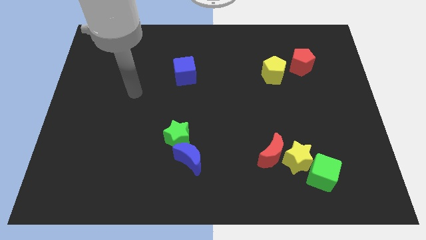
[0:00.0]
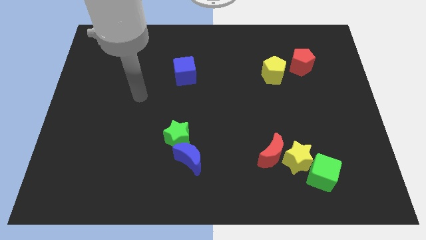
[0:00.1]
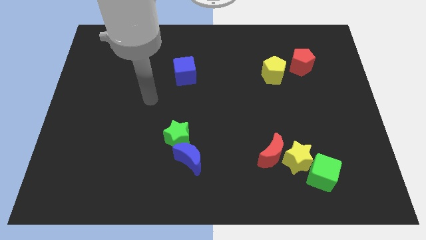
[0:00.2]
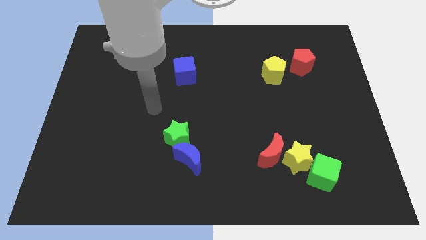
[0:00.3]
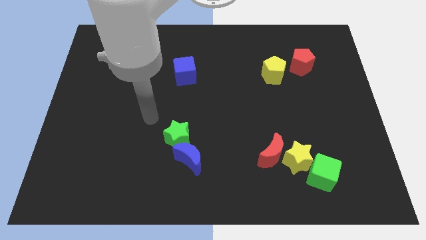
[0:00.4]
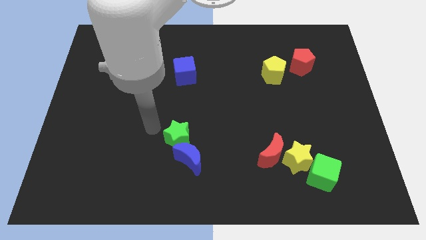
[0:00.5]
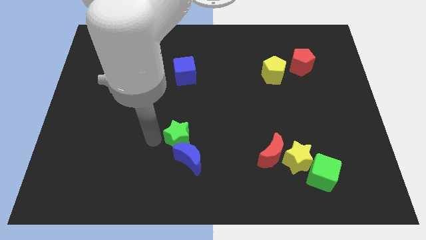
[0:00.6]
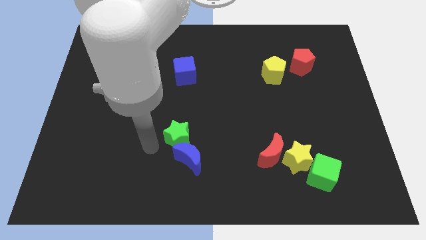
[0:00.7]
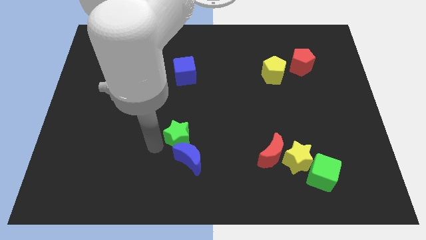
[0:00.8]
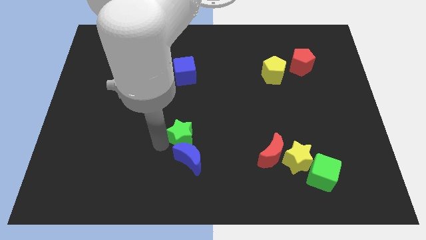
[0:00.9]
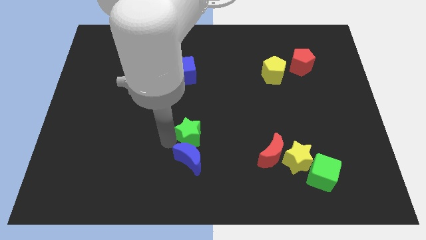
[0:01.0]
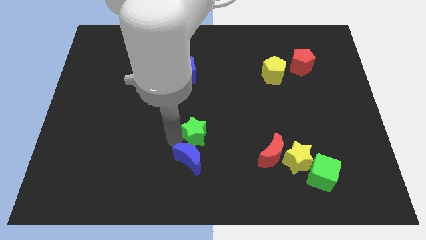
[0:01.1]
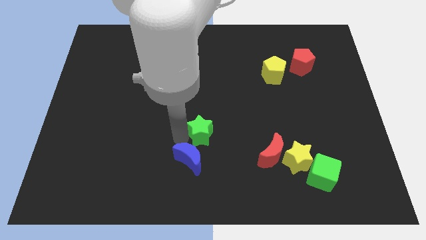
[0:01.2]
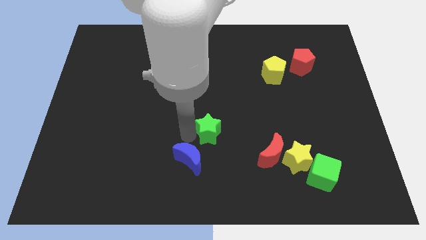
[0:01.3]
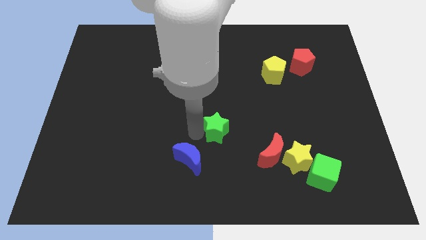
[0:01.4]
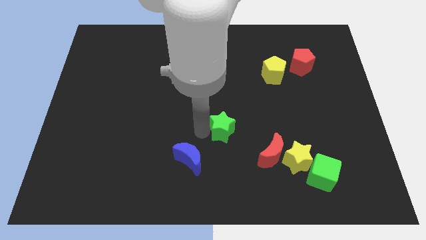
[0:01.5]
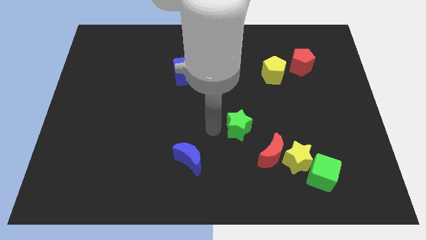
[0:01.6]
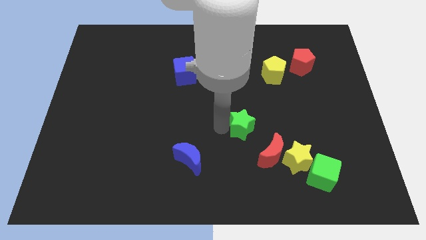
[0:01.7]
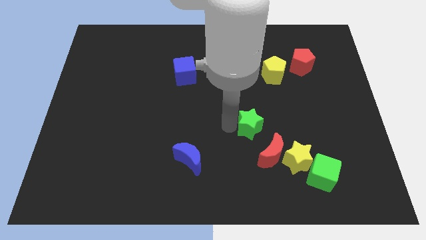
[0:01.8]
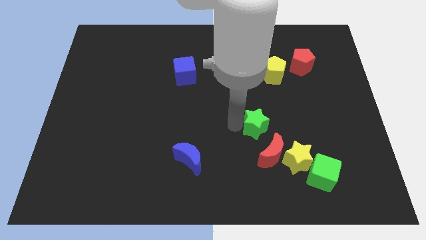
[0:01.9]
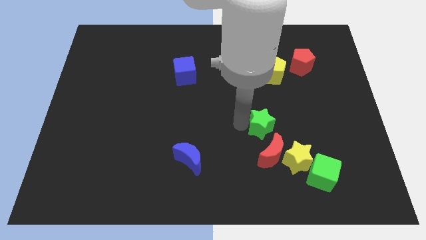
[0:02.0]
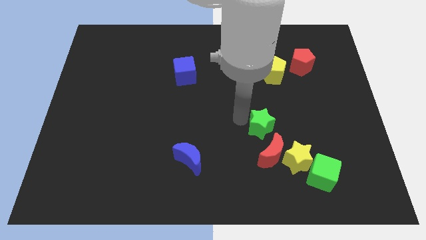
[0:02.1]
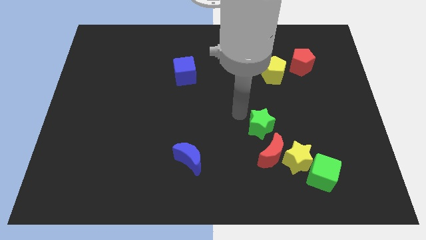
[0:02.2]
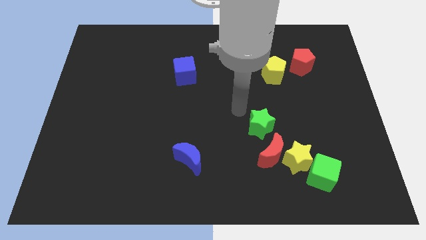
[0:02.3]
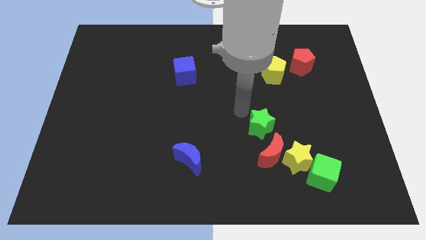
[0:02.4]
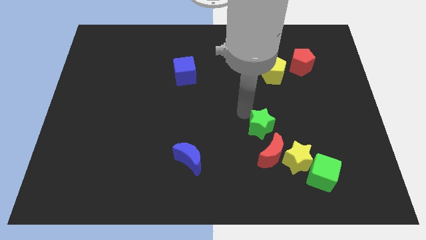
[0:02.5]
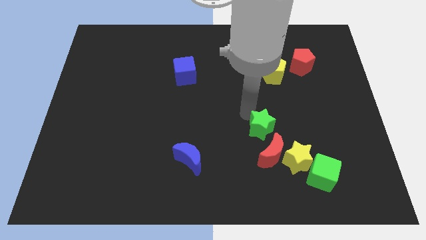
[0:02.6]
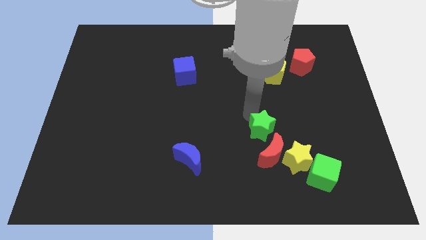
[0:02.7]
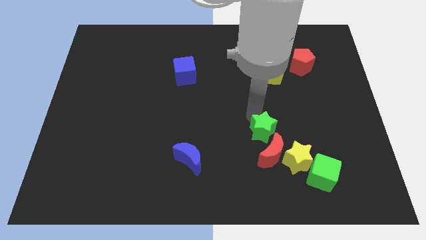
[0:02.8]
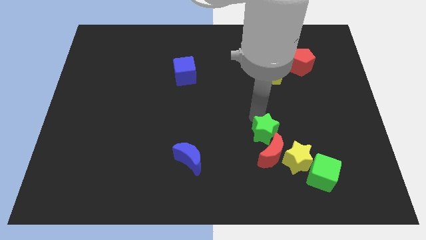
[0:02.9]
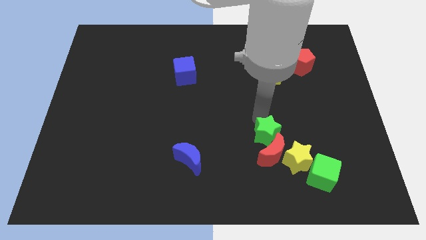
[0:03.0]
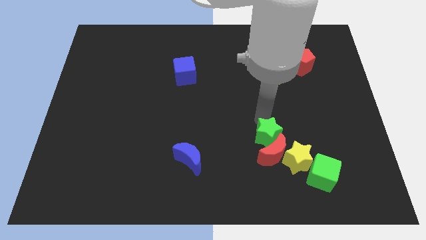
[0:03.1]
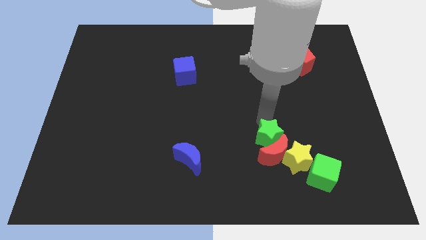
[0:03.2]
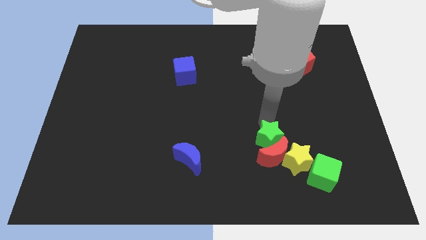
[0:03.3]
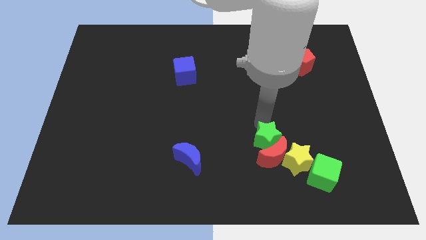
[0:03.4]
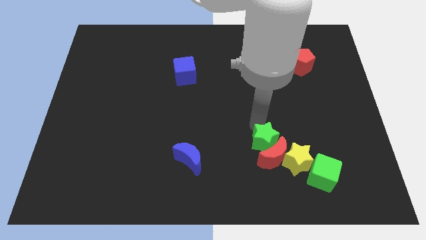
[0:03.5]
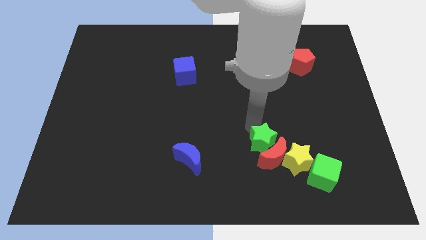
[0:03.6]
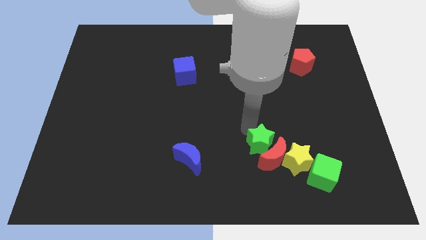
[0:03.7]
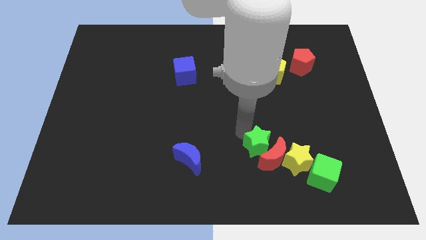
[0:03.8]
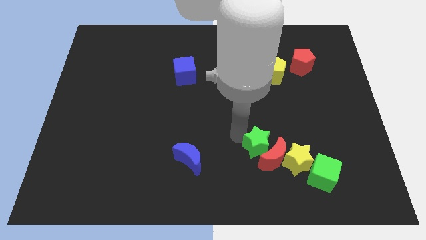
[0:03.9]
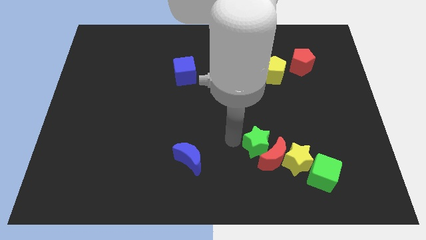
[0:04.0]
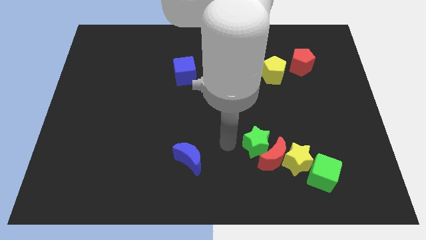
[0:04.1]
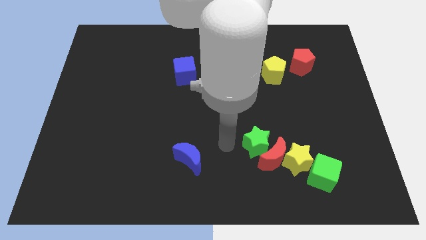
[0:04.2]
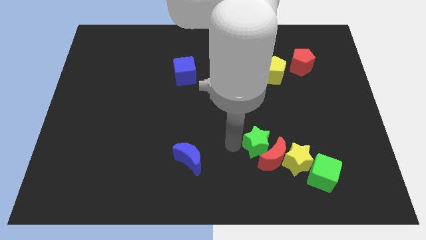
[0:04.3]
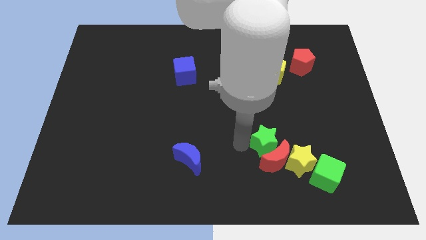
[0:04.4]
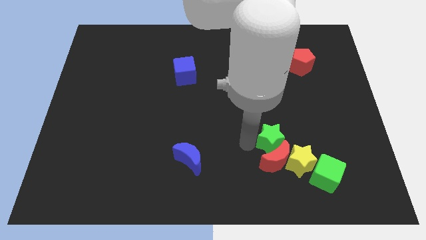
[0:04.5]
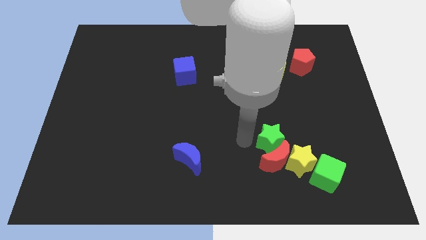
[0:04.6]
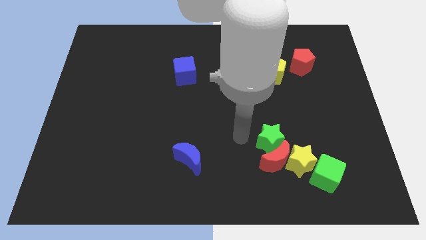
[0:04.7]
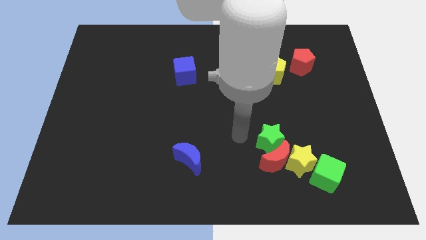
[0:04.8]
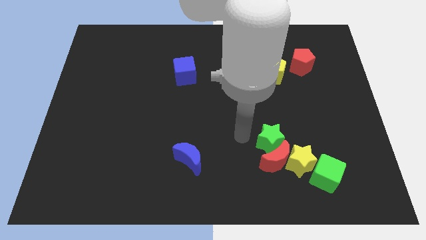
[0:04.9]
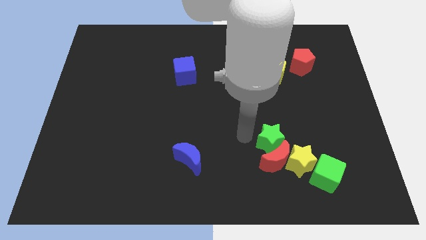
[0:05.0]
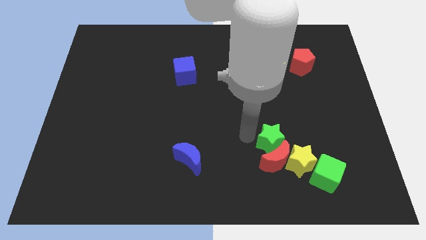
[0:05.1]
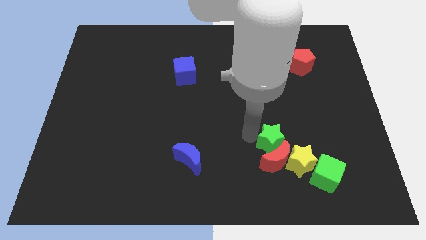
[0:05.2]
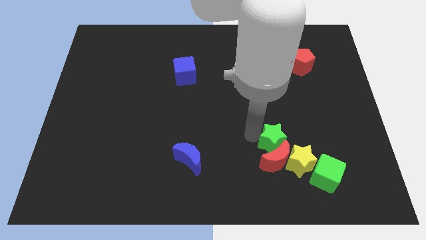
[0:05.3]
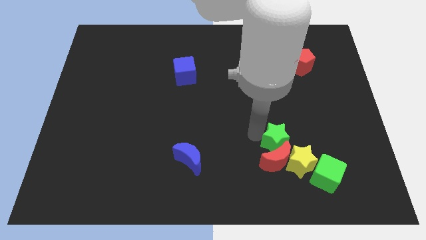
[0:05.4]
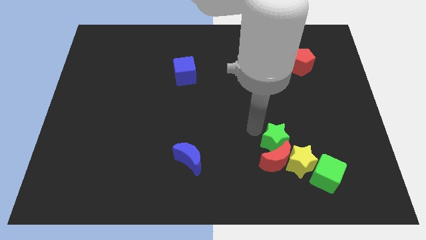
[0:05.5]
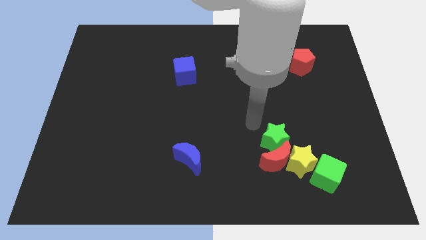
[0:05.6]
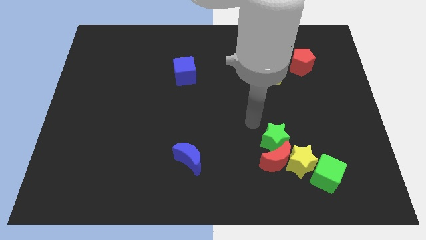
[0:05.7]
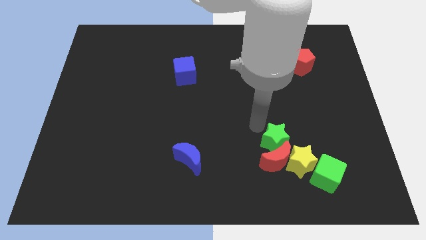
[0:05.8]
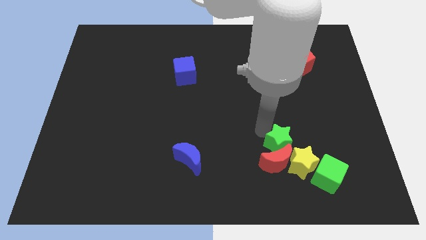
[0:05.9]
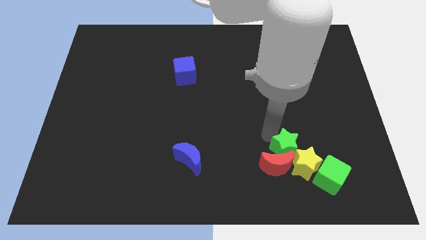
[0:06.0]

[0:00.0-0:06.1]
push the green star to the yellow star

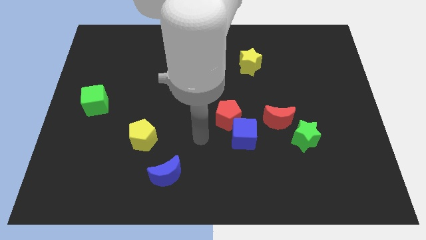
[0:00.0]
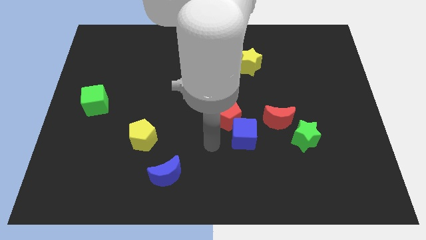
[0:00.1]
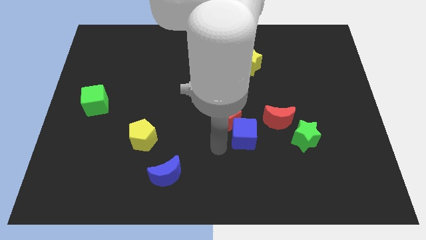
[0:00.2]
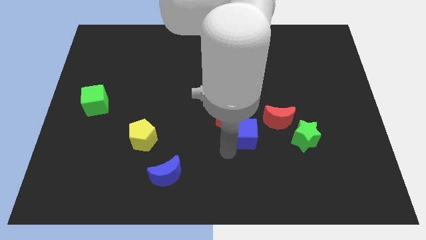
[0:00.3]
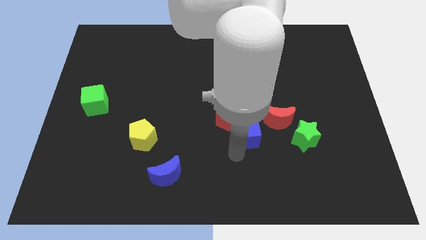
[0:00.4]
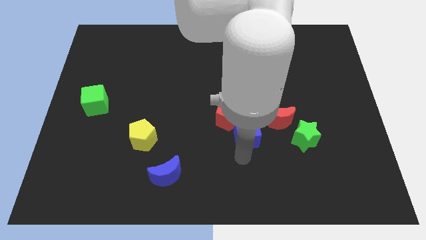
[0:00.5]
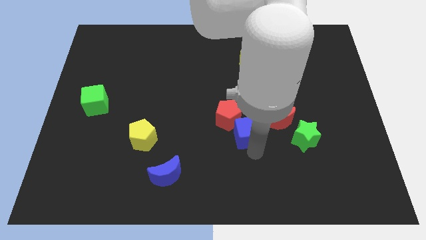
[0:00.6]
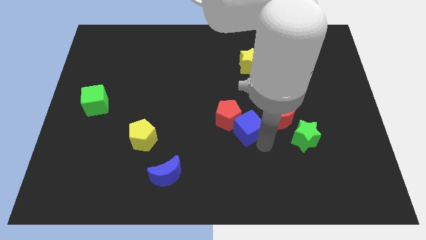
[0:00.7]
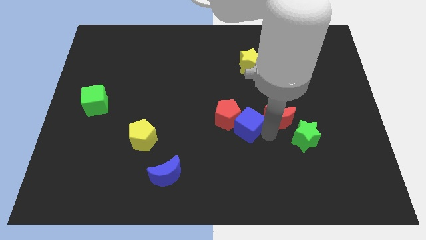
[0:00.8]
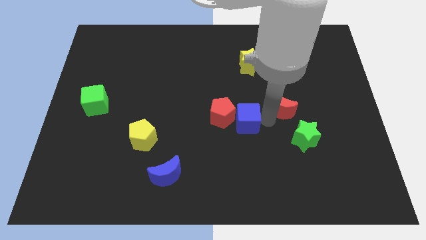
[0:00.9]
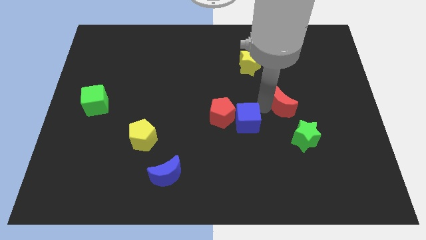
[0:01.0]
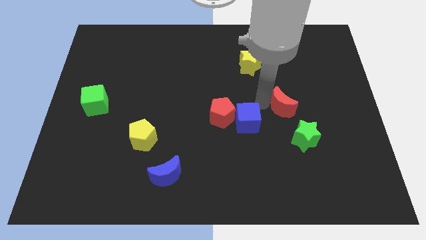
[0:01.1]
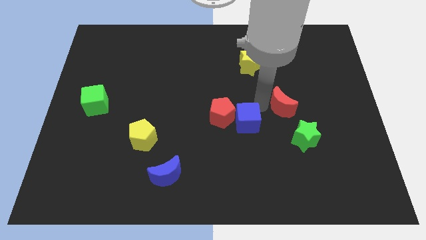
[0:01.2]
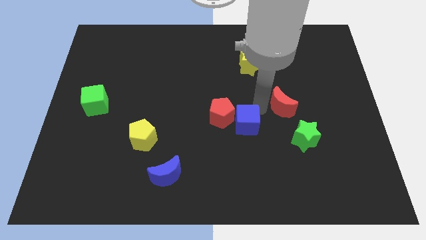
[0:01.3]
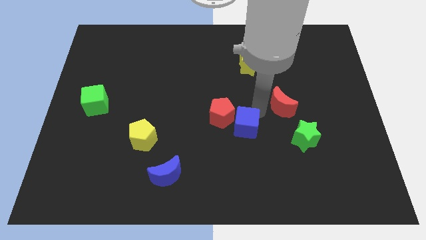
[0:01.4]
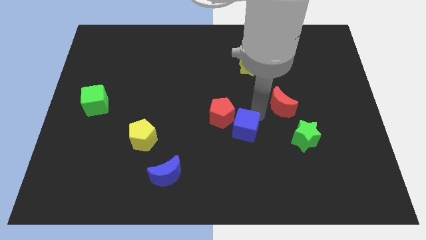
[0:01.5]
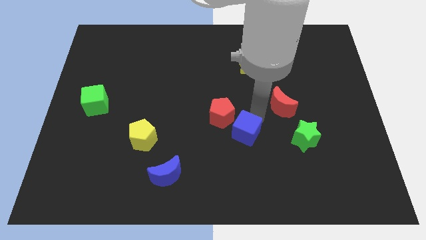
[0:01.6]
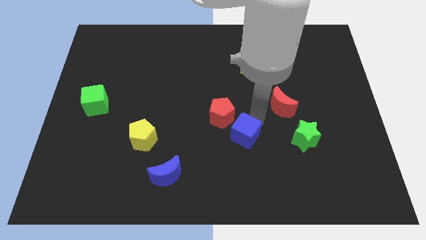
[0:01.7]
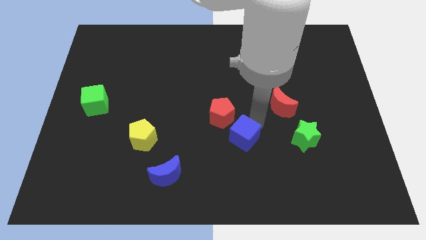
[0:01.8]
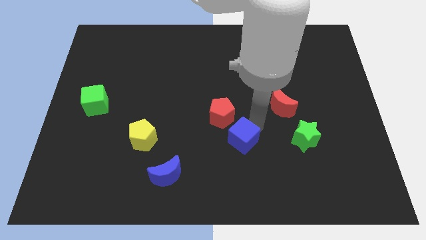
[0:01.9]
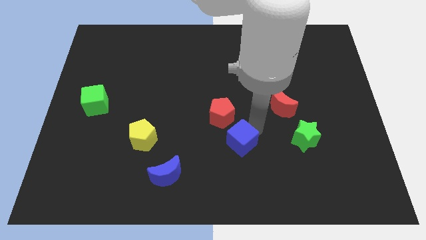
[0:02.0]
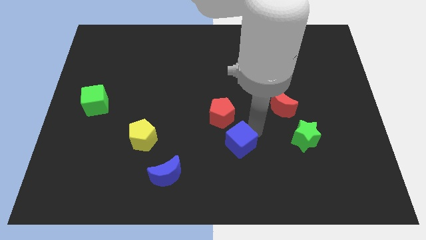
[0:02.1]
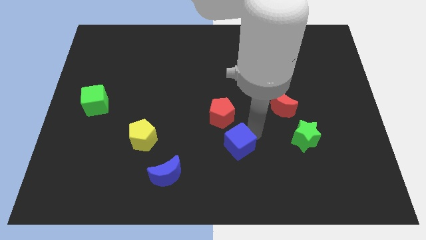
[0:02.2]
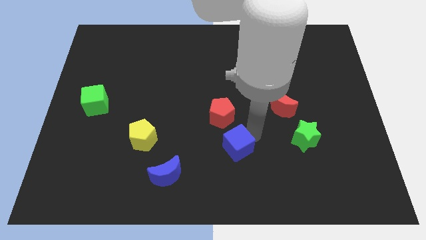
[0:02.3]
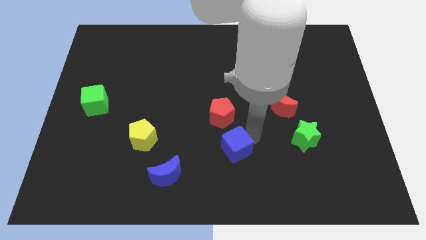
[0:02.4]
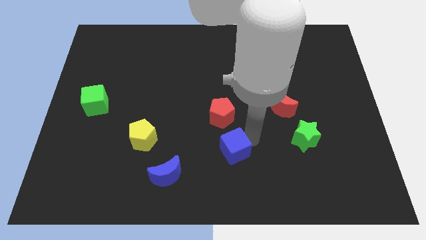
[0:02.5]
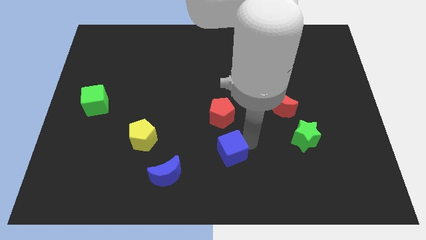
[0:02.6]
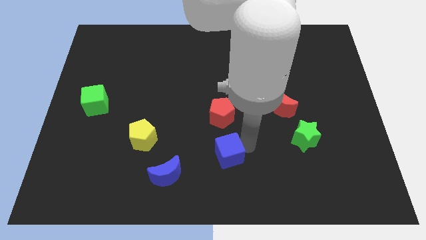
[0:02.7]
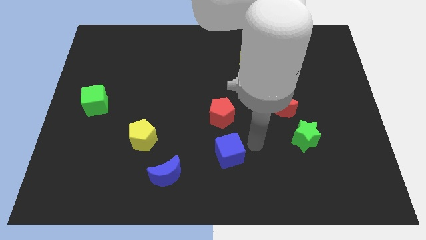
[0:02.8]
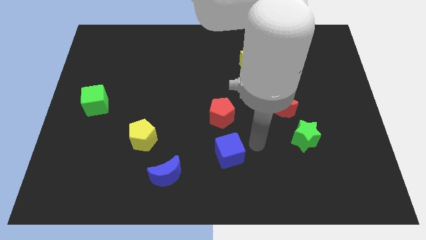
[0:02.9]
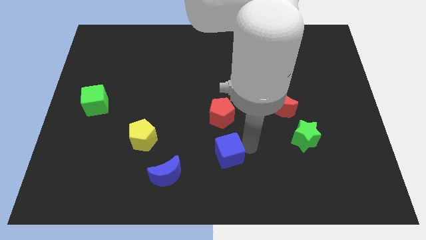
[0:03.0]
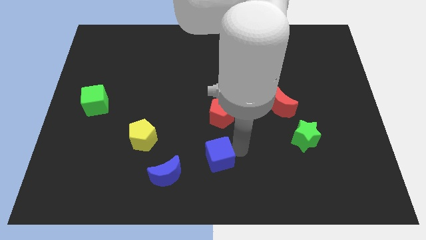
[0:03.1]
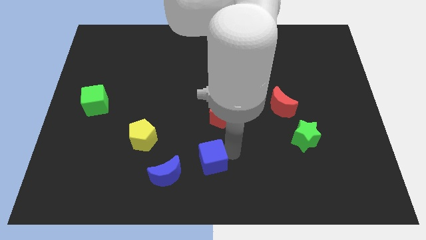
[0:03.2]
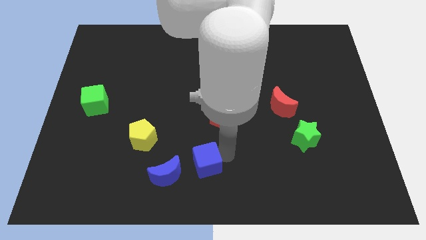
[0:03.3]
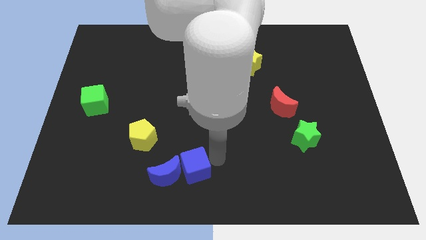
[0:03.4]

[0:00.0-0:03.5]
slide the blue cube close to the blue moon
